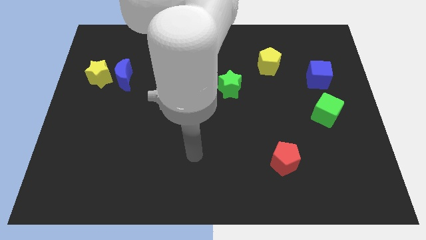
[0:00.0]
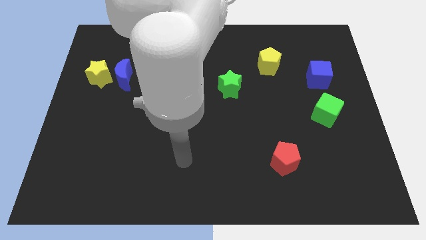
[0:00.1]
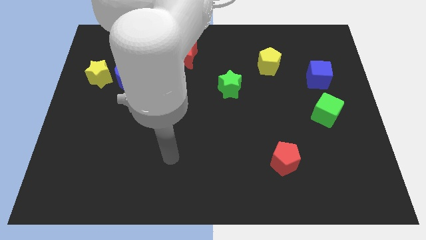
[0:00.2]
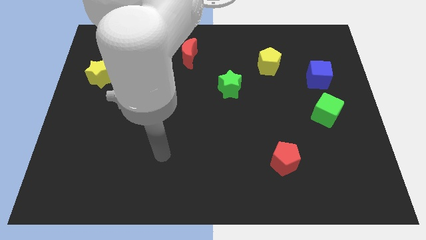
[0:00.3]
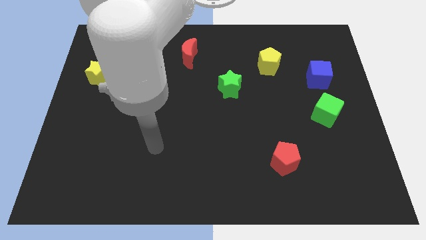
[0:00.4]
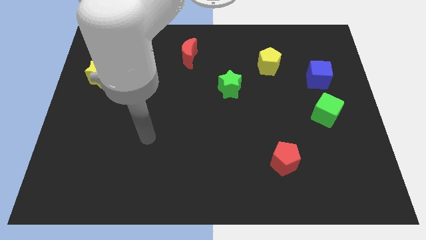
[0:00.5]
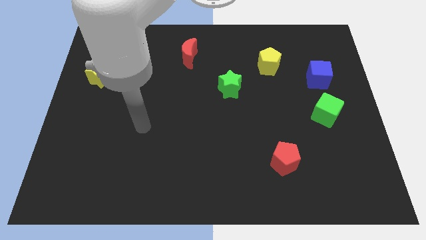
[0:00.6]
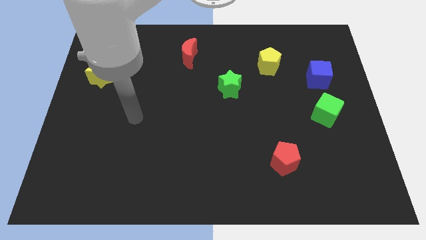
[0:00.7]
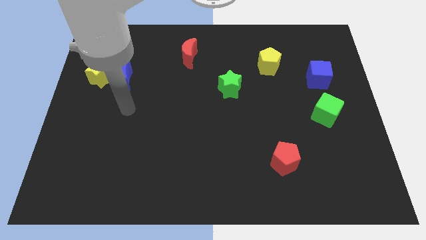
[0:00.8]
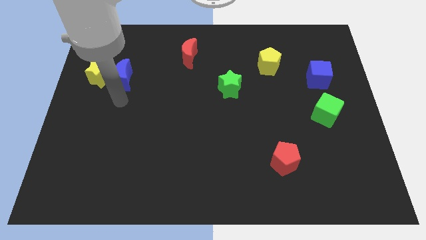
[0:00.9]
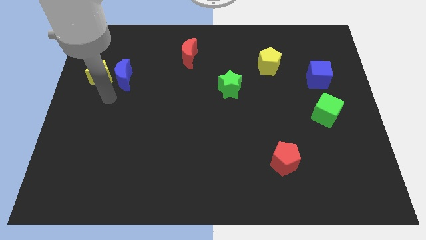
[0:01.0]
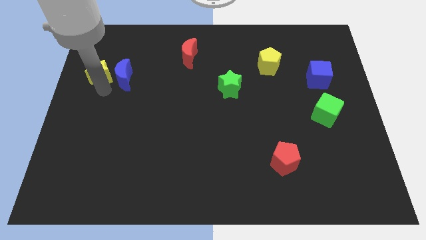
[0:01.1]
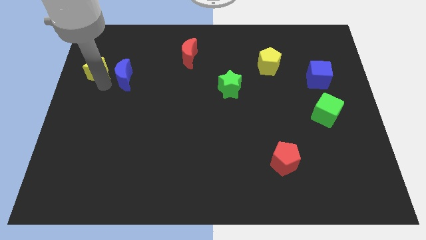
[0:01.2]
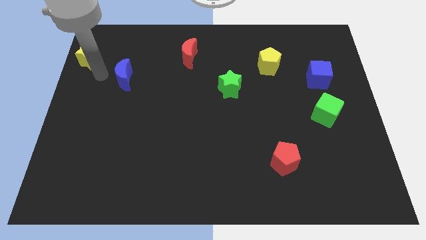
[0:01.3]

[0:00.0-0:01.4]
separate the blue moon from the yellow star

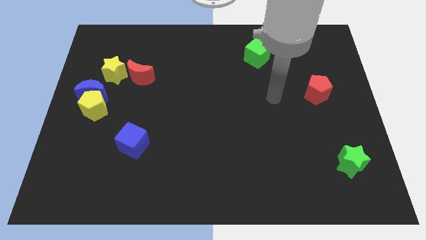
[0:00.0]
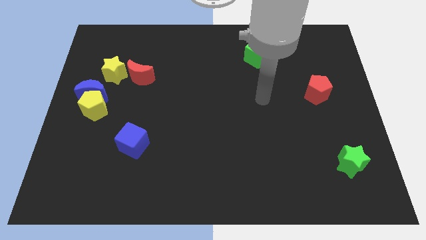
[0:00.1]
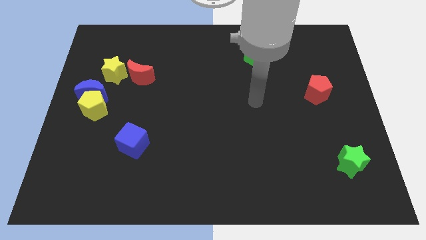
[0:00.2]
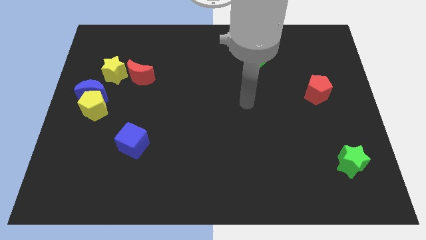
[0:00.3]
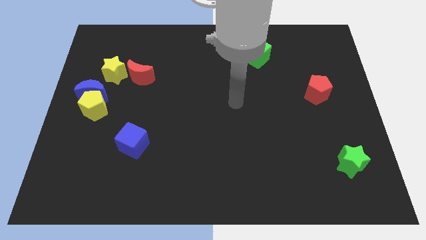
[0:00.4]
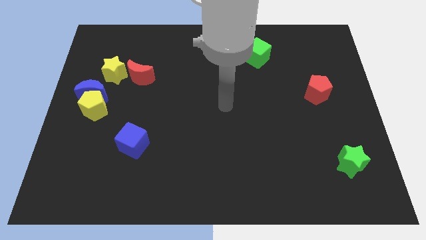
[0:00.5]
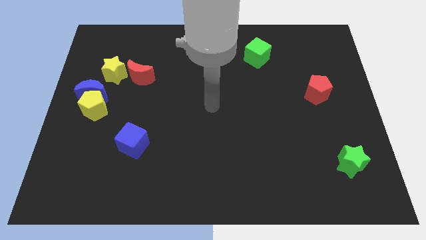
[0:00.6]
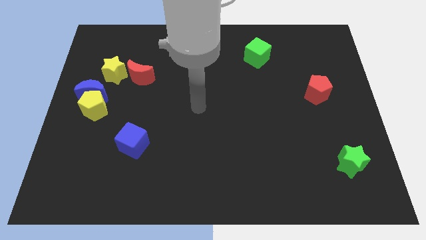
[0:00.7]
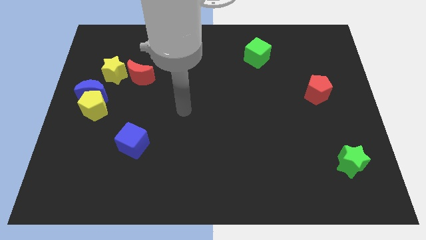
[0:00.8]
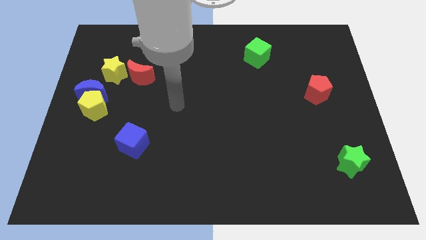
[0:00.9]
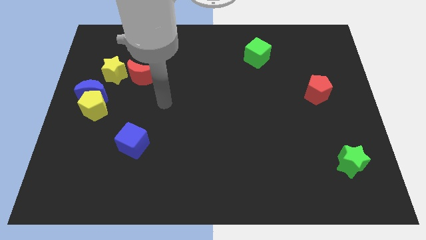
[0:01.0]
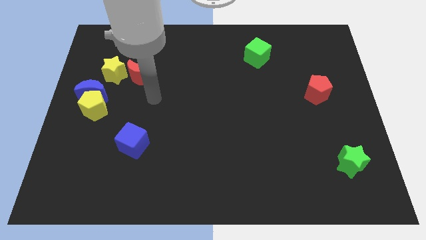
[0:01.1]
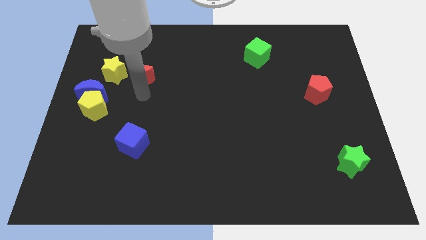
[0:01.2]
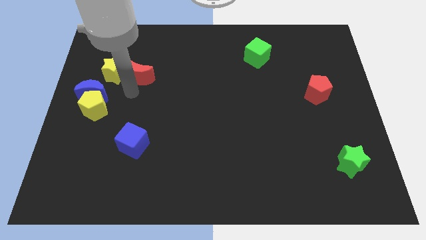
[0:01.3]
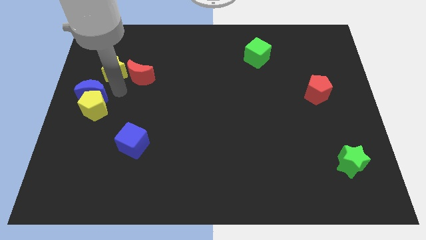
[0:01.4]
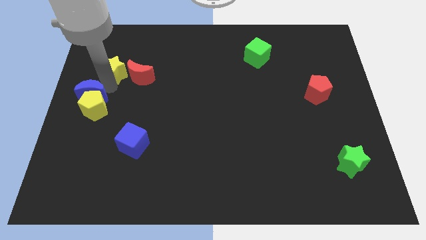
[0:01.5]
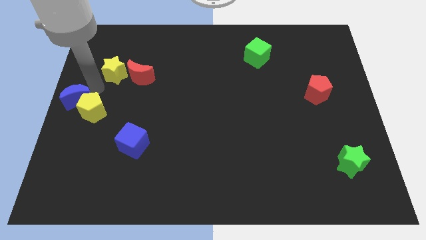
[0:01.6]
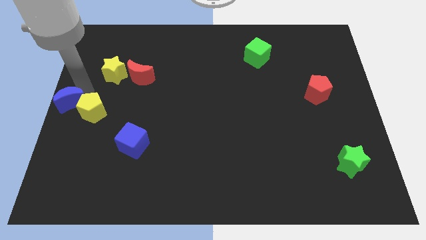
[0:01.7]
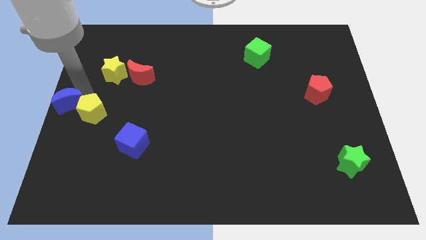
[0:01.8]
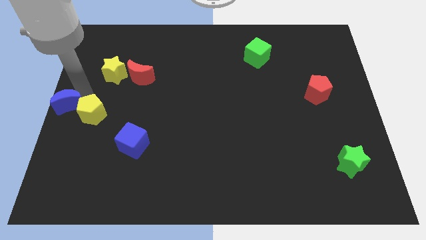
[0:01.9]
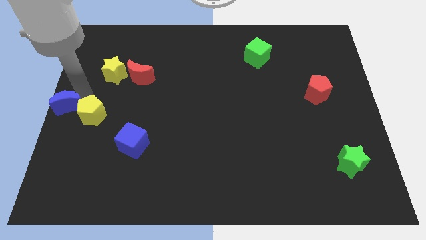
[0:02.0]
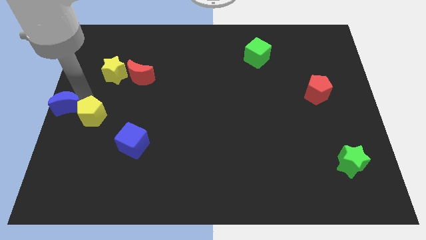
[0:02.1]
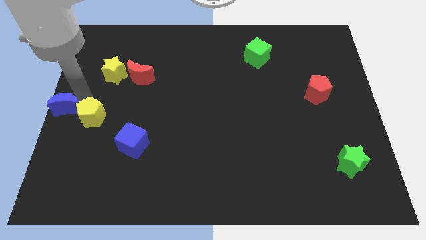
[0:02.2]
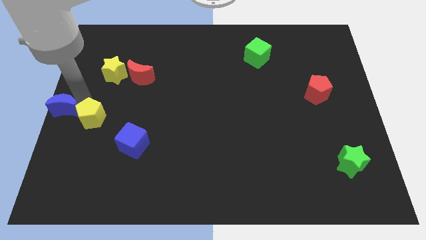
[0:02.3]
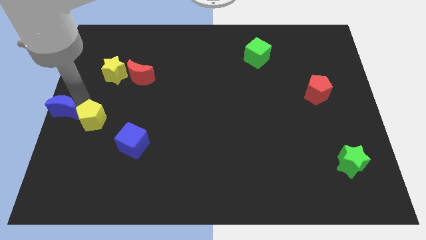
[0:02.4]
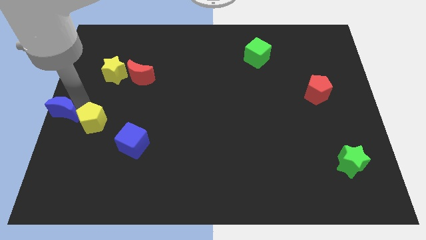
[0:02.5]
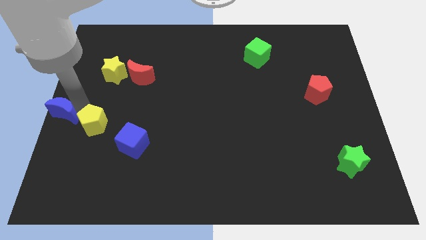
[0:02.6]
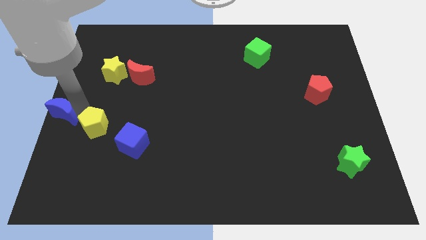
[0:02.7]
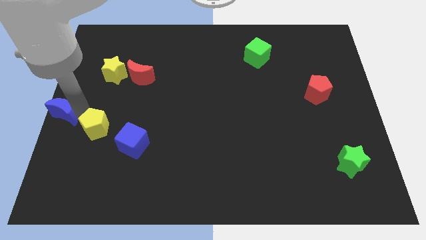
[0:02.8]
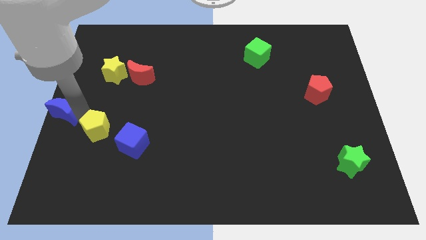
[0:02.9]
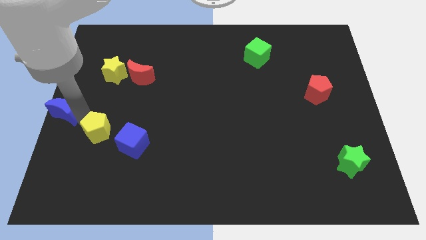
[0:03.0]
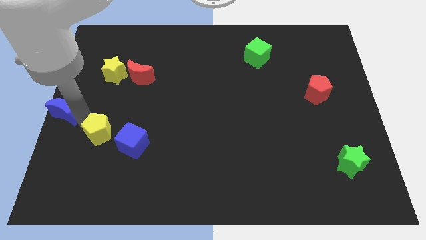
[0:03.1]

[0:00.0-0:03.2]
separate the yellow pentagon from the blue moon

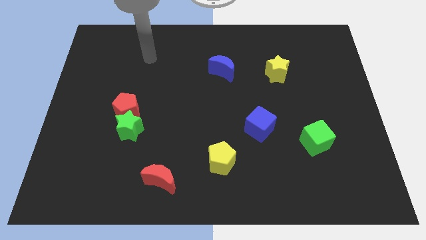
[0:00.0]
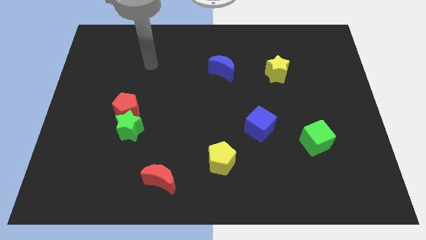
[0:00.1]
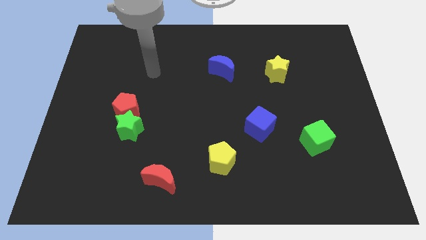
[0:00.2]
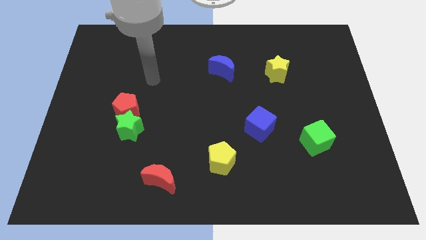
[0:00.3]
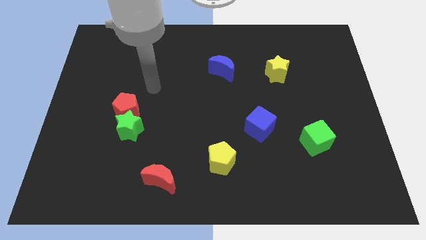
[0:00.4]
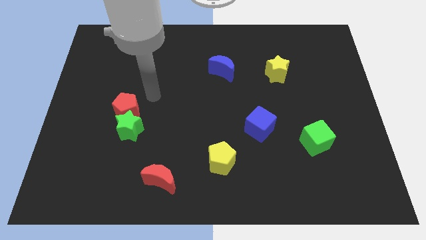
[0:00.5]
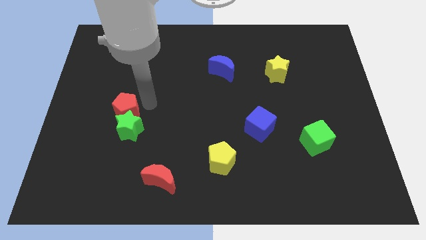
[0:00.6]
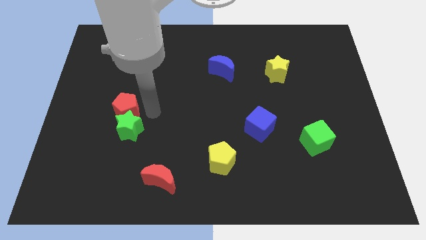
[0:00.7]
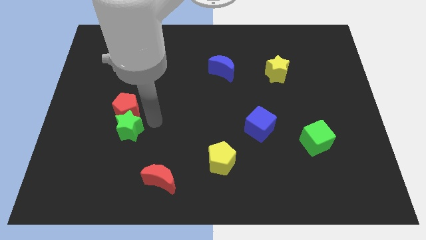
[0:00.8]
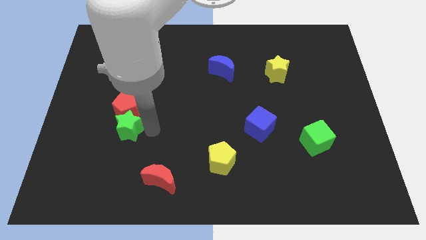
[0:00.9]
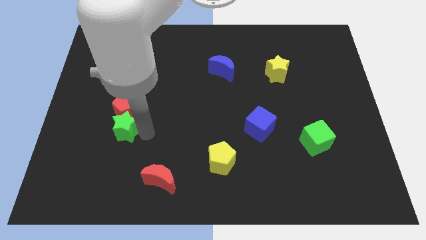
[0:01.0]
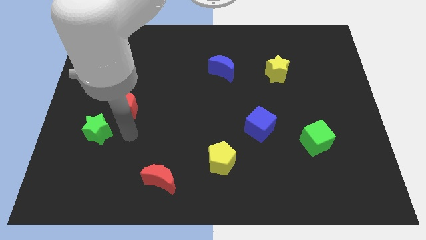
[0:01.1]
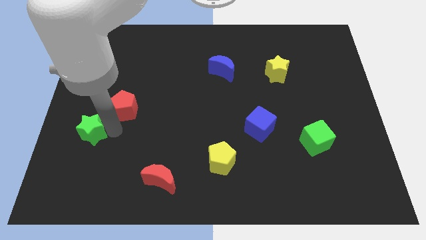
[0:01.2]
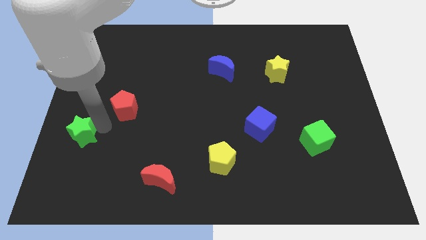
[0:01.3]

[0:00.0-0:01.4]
separate the red pentagon from the green star

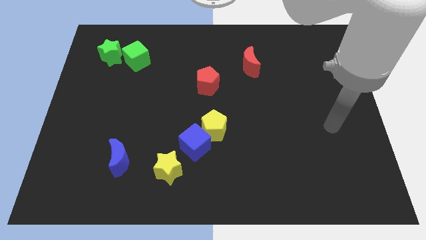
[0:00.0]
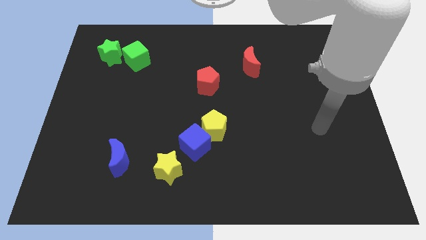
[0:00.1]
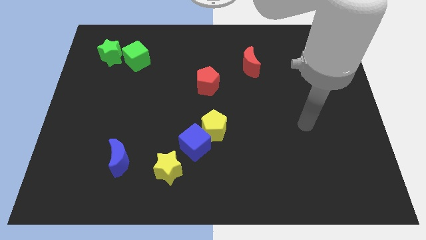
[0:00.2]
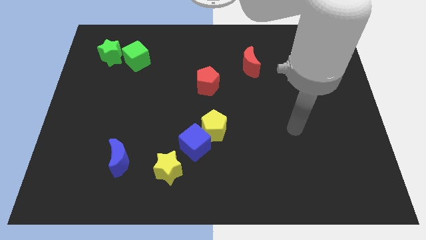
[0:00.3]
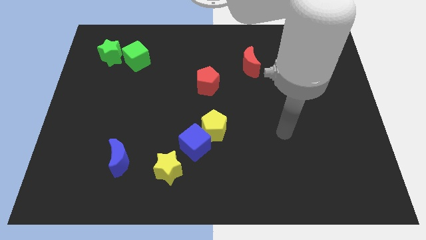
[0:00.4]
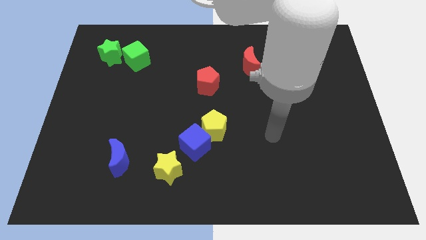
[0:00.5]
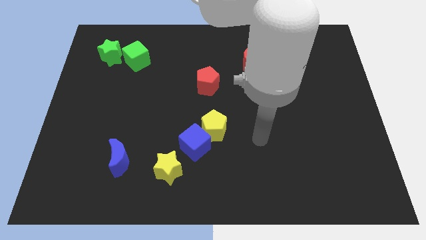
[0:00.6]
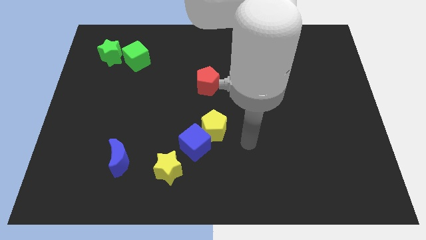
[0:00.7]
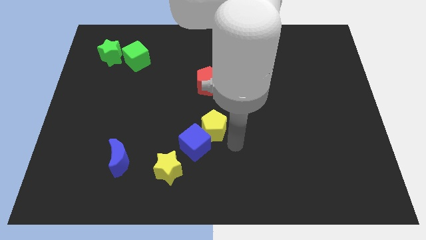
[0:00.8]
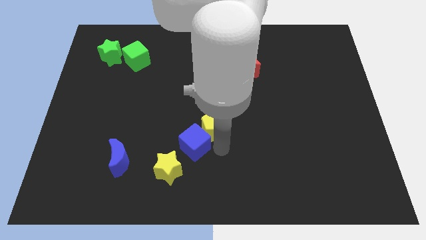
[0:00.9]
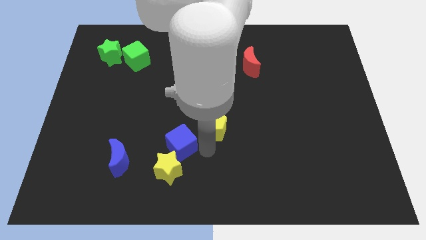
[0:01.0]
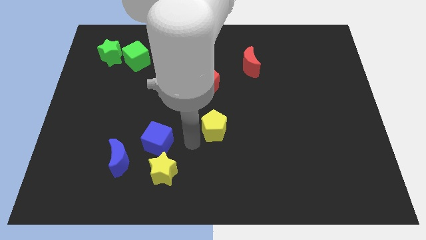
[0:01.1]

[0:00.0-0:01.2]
pull the yellow pentagon apart from the blue cube

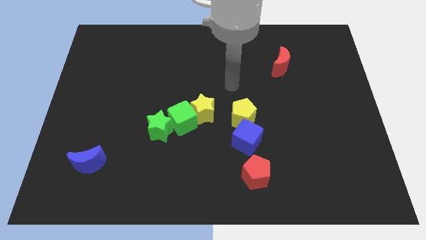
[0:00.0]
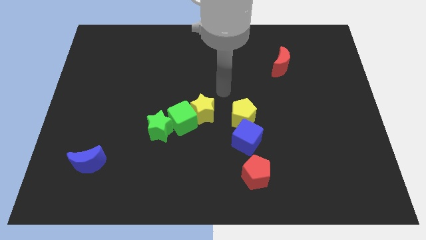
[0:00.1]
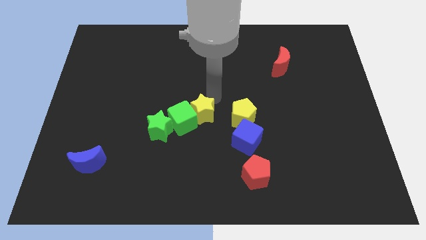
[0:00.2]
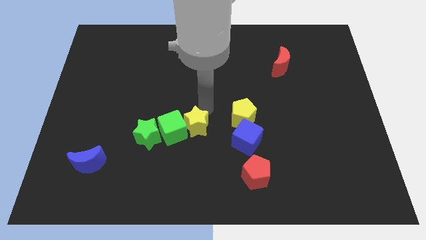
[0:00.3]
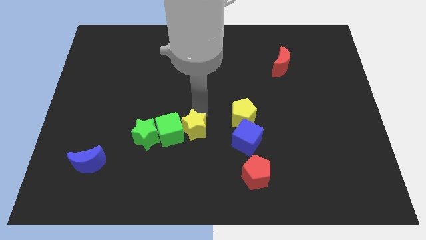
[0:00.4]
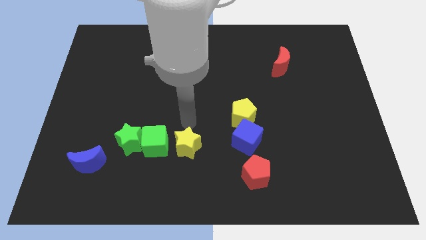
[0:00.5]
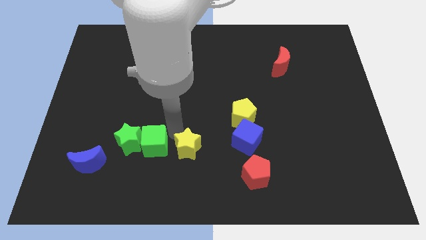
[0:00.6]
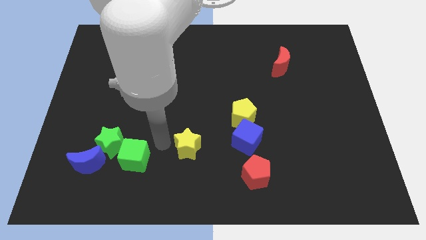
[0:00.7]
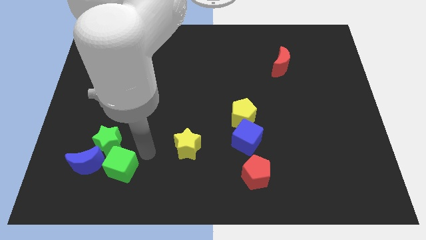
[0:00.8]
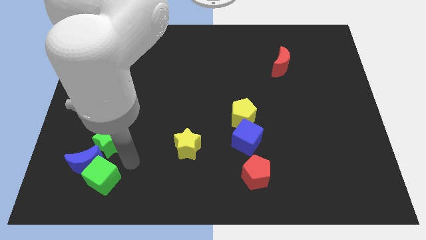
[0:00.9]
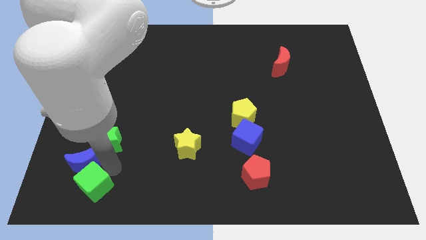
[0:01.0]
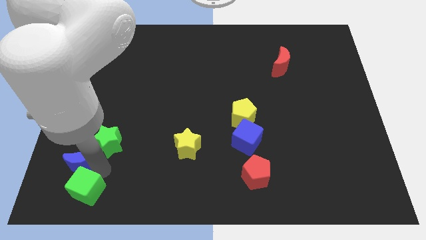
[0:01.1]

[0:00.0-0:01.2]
separate the green star from the green cube

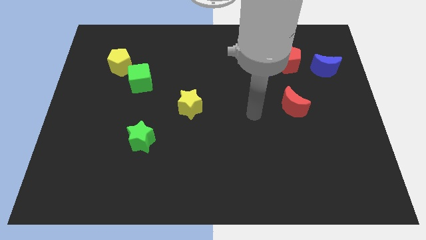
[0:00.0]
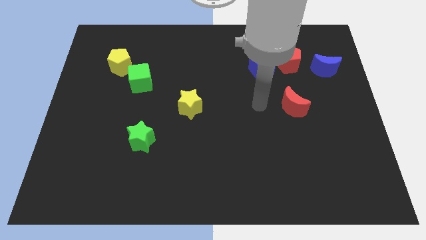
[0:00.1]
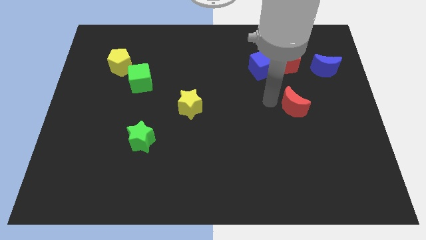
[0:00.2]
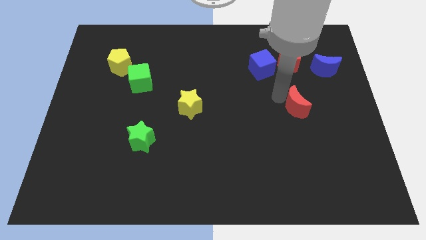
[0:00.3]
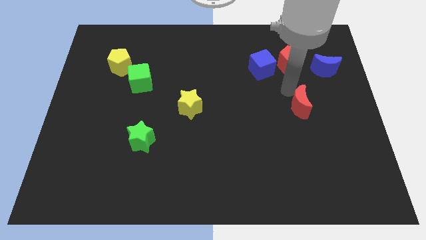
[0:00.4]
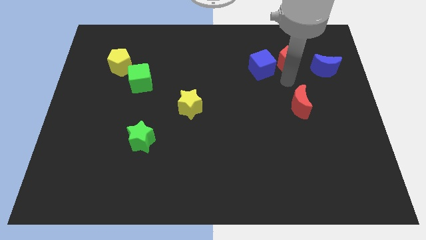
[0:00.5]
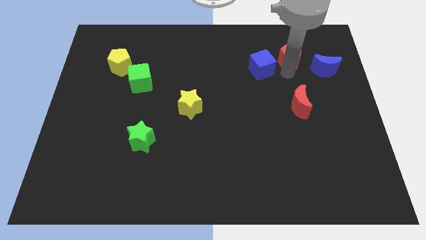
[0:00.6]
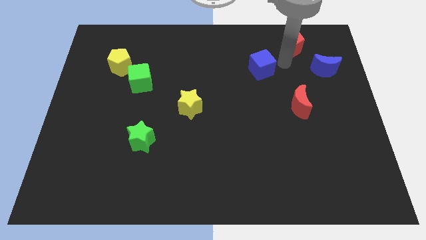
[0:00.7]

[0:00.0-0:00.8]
separate the blue cube from the red pentagon

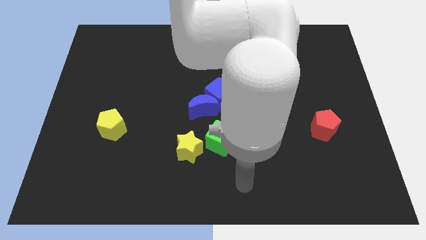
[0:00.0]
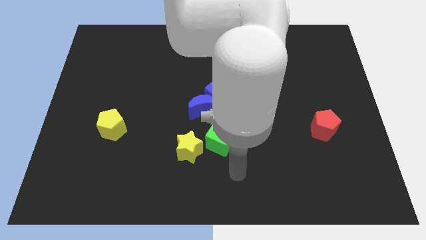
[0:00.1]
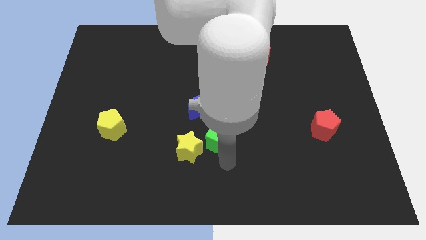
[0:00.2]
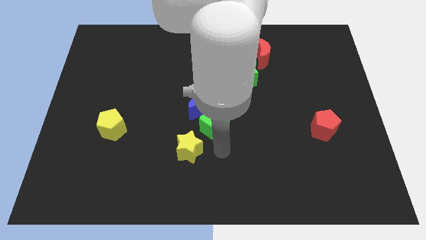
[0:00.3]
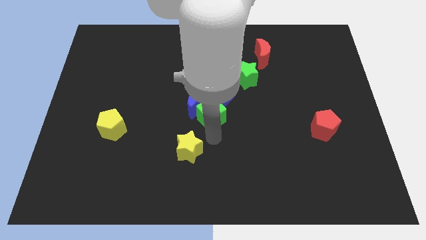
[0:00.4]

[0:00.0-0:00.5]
separate the yellow star from the green cube
